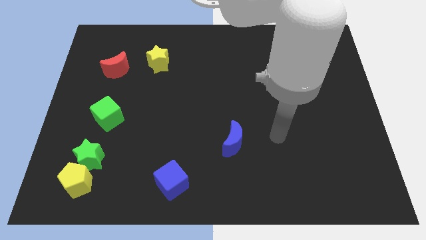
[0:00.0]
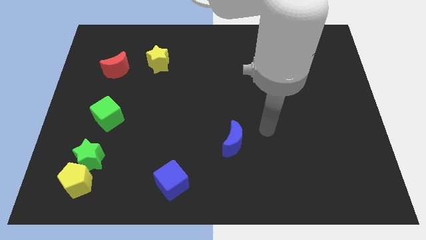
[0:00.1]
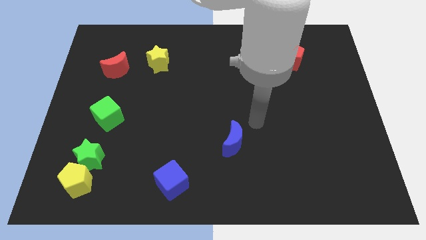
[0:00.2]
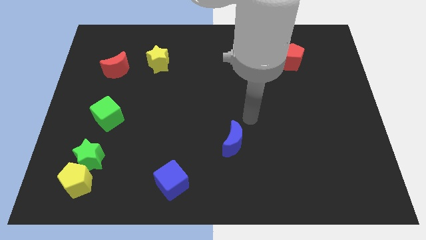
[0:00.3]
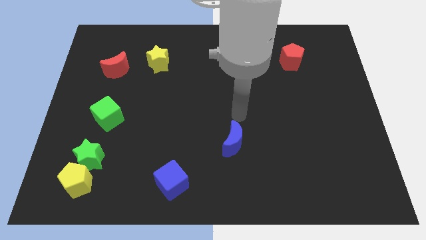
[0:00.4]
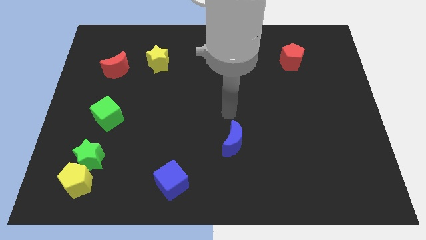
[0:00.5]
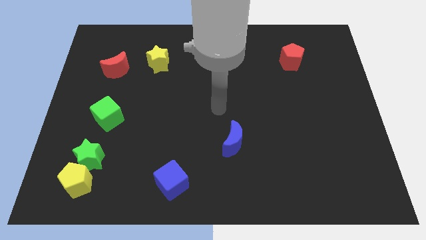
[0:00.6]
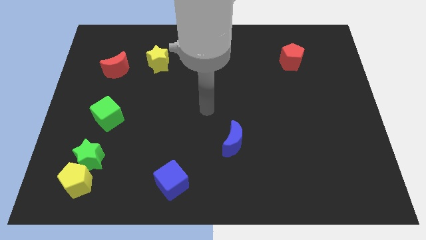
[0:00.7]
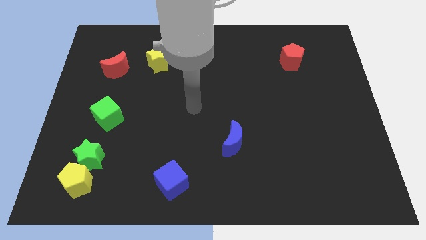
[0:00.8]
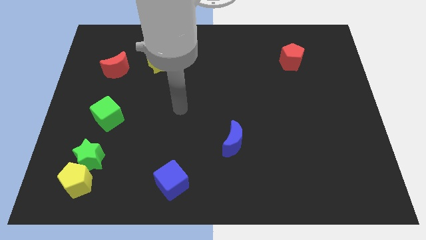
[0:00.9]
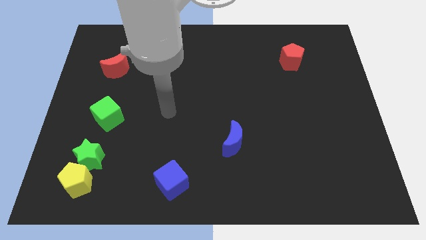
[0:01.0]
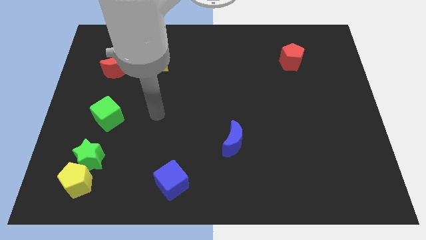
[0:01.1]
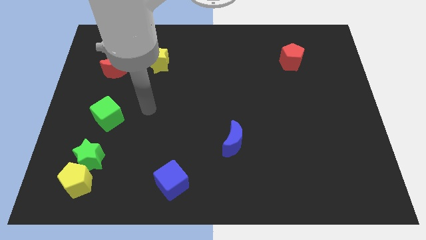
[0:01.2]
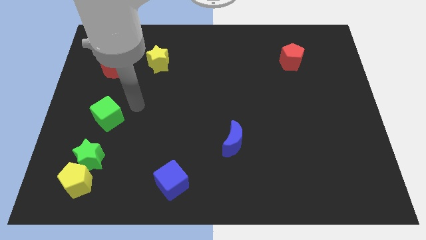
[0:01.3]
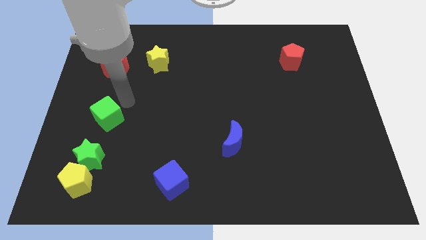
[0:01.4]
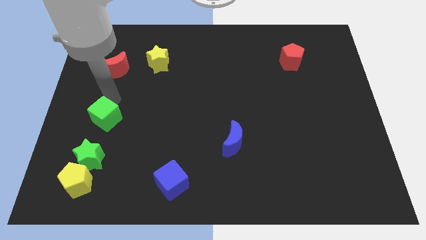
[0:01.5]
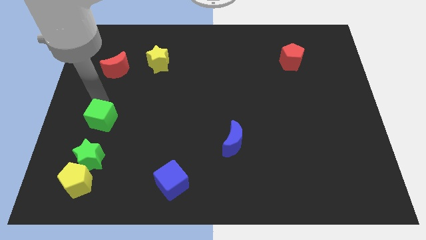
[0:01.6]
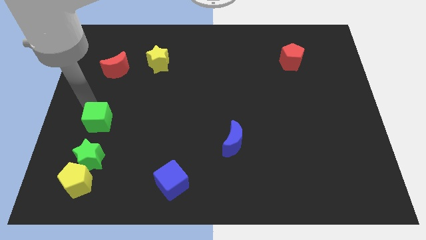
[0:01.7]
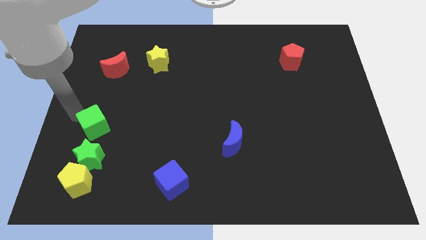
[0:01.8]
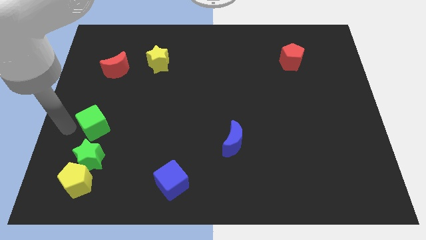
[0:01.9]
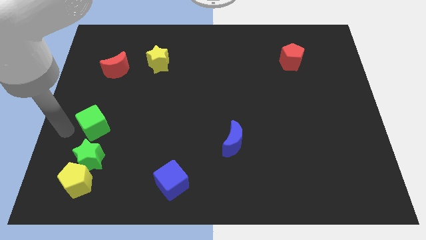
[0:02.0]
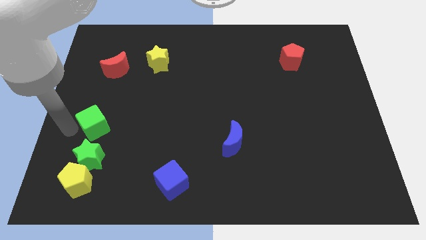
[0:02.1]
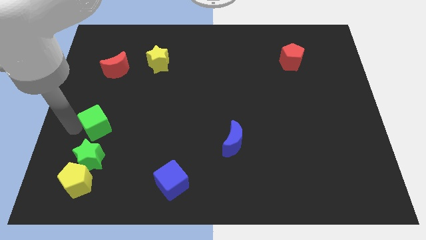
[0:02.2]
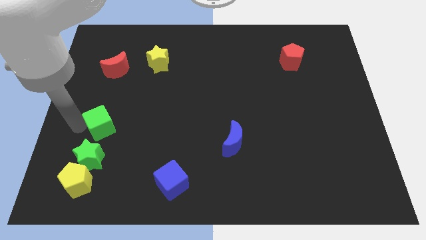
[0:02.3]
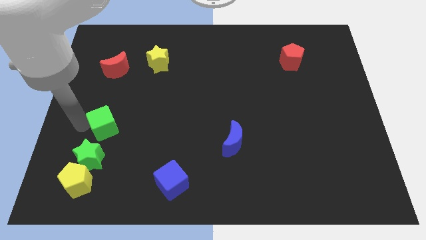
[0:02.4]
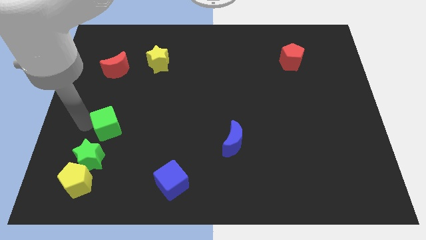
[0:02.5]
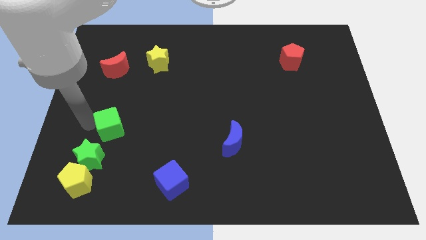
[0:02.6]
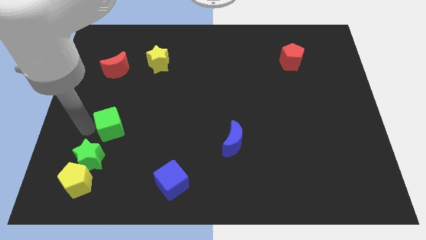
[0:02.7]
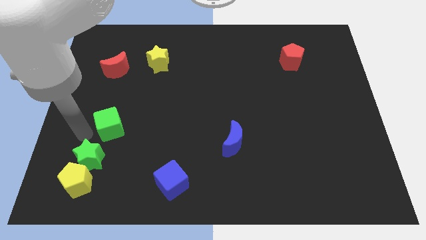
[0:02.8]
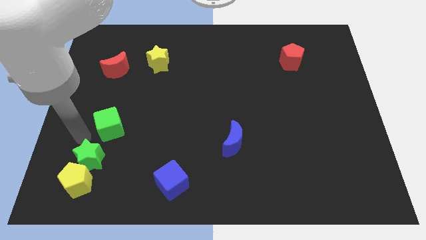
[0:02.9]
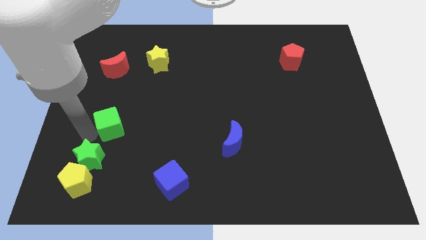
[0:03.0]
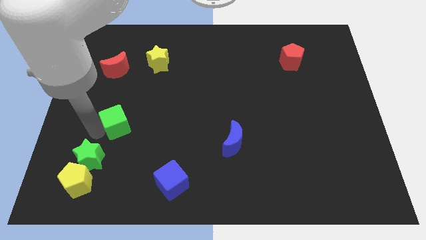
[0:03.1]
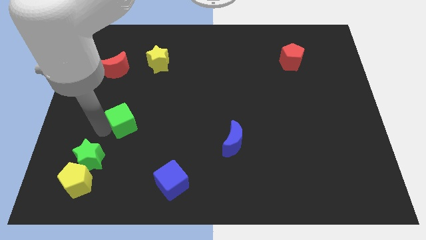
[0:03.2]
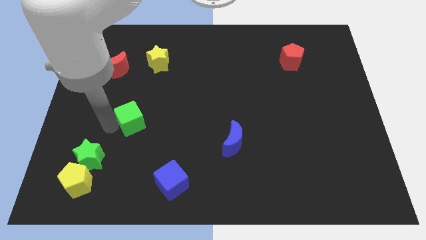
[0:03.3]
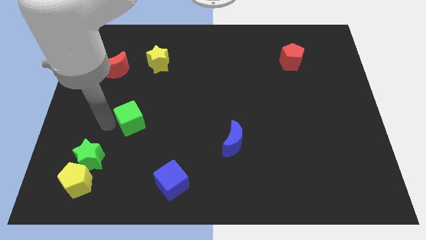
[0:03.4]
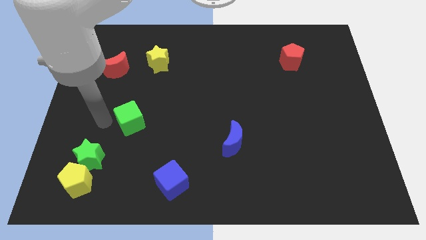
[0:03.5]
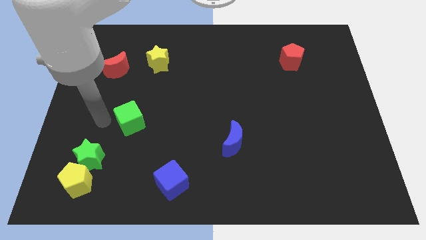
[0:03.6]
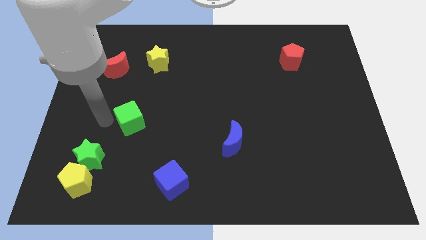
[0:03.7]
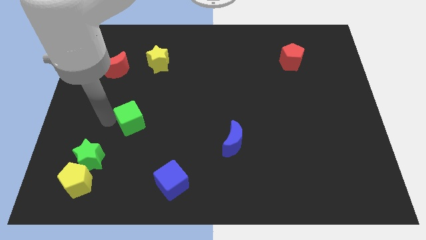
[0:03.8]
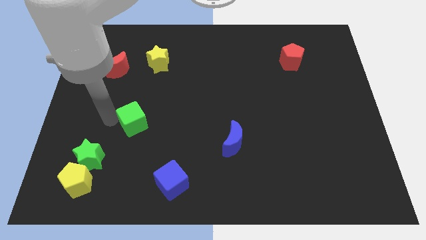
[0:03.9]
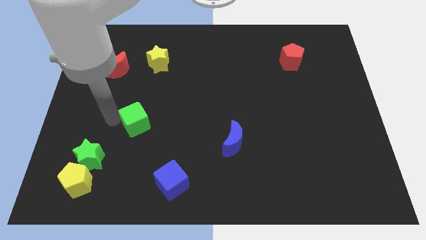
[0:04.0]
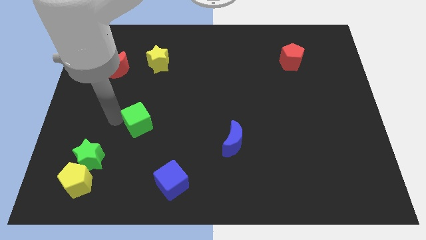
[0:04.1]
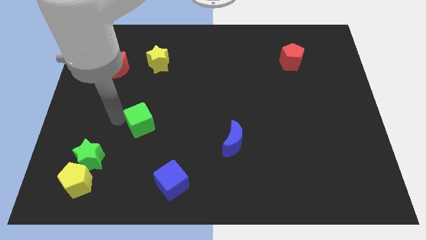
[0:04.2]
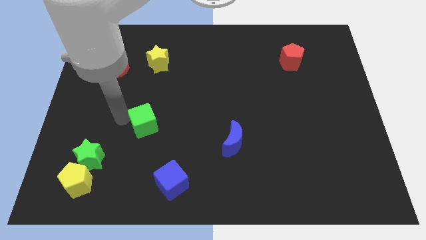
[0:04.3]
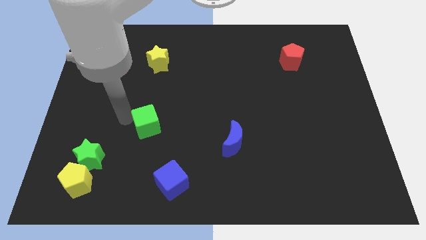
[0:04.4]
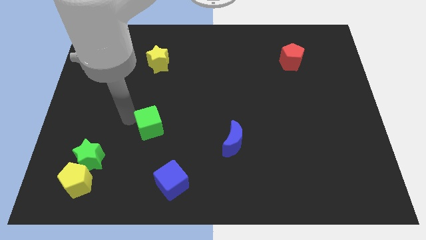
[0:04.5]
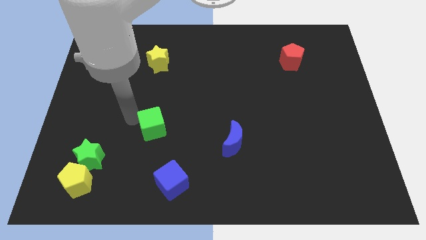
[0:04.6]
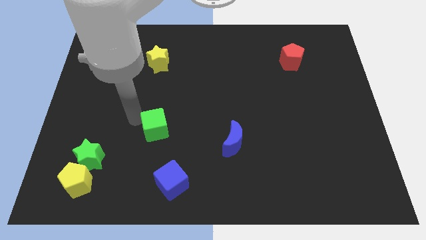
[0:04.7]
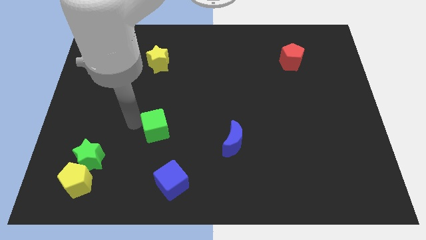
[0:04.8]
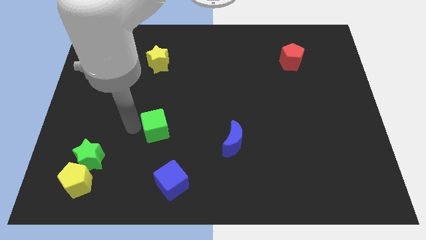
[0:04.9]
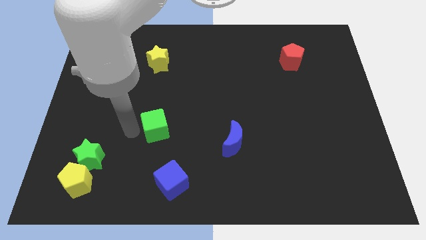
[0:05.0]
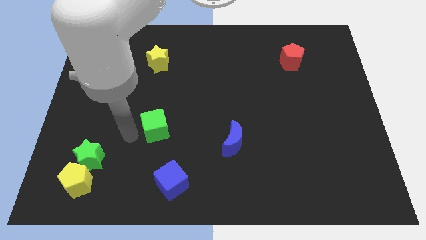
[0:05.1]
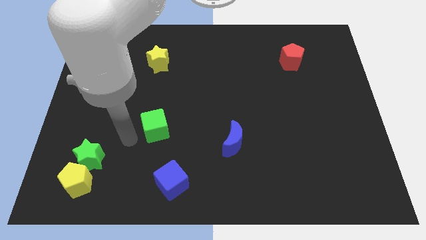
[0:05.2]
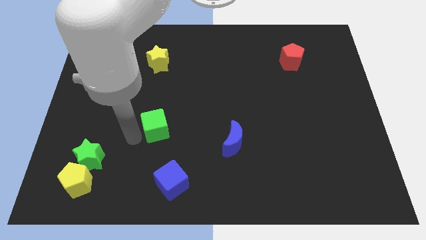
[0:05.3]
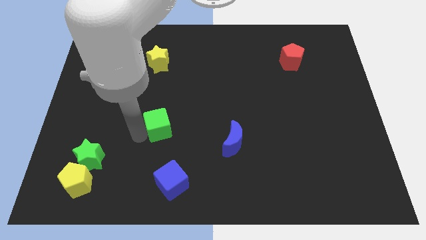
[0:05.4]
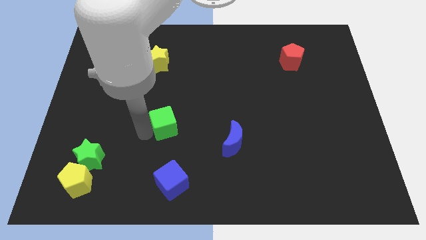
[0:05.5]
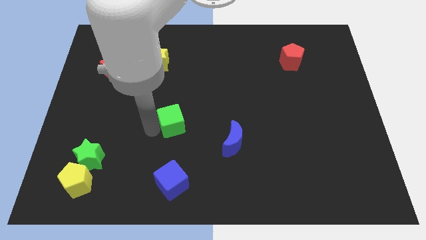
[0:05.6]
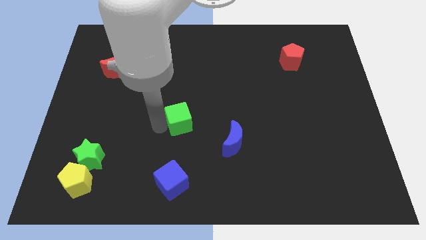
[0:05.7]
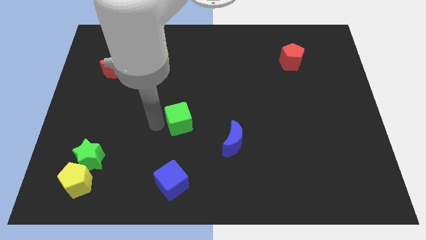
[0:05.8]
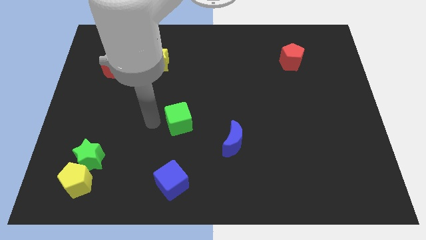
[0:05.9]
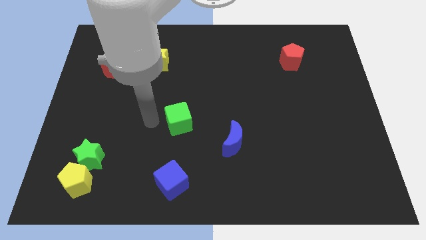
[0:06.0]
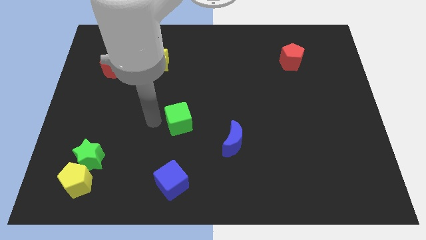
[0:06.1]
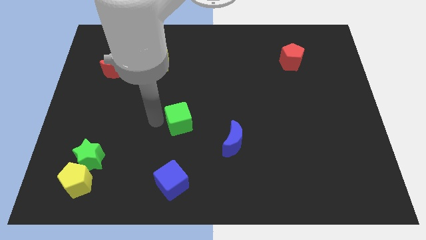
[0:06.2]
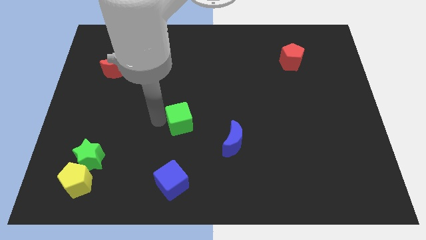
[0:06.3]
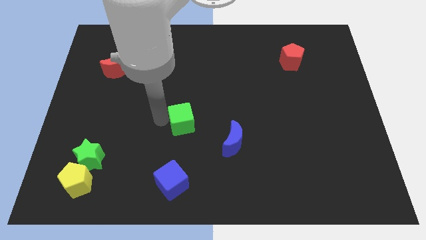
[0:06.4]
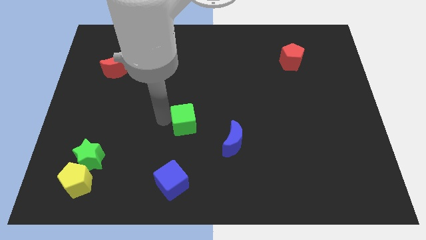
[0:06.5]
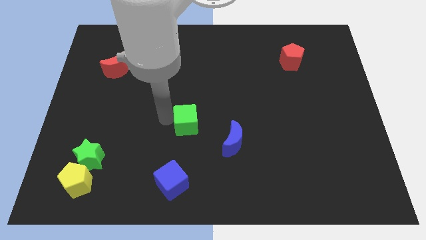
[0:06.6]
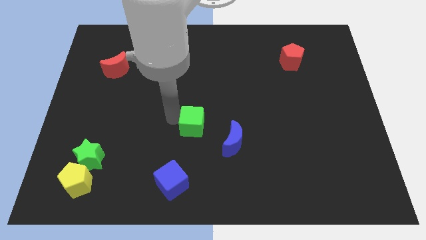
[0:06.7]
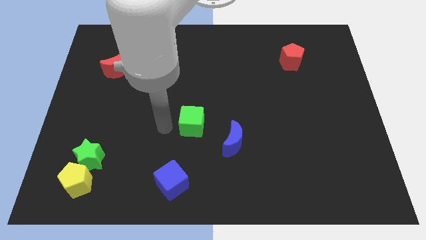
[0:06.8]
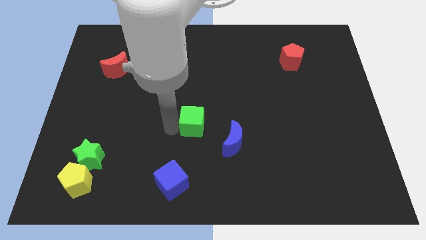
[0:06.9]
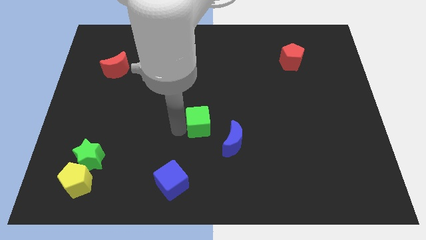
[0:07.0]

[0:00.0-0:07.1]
move the green cube right

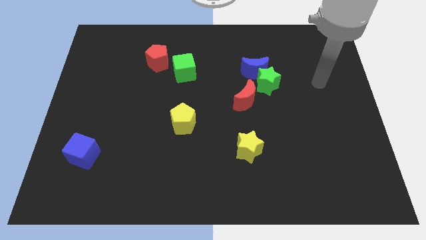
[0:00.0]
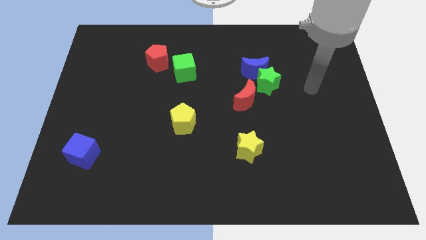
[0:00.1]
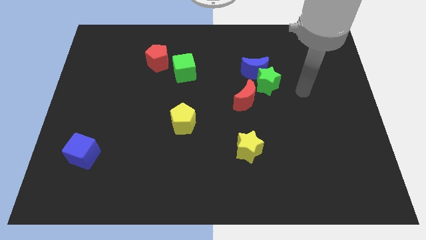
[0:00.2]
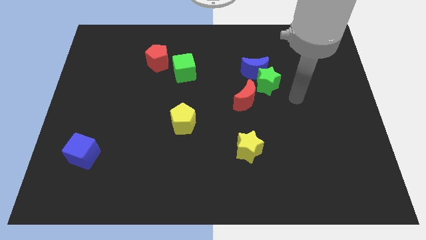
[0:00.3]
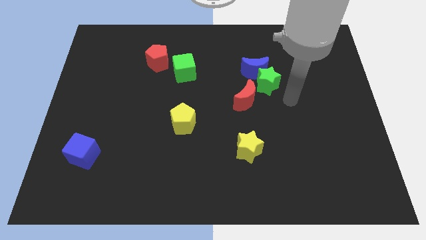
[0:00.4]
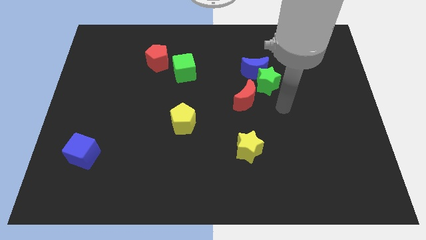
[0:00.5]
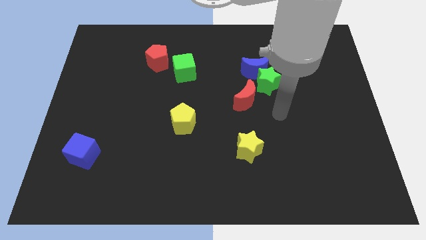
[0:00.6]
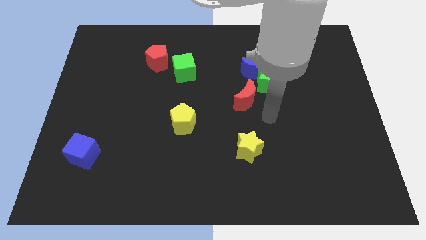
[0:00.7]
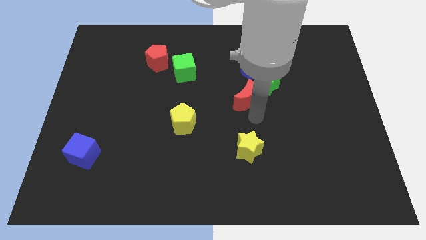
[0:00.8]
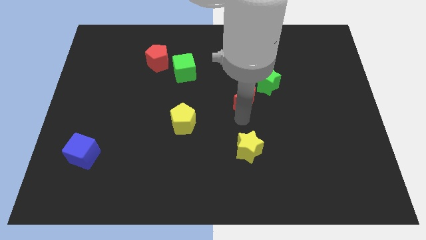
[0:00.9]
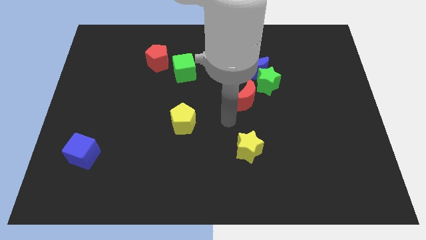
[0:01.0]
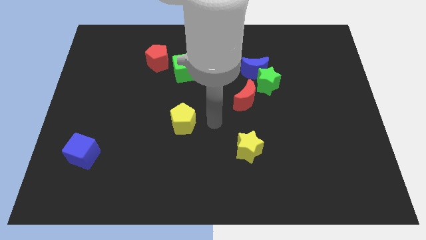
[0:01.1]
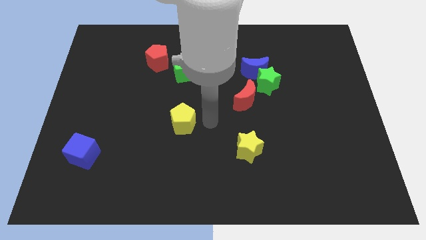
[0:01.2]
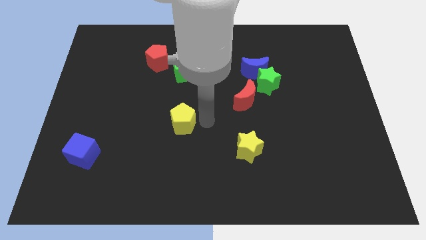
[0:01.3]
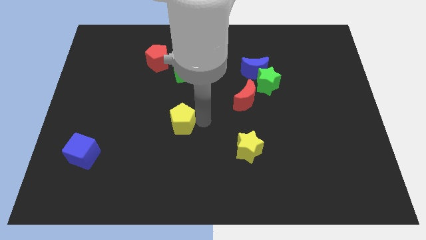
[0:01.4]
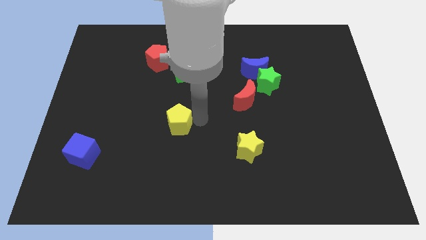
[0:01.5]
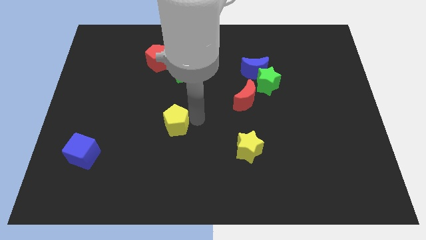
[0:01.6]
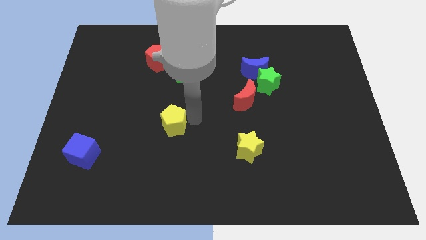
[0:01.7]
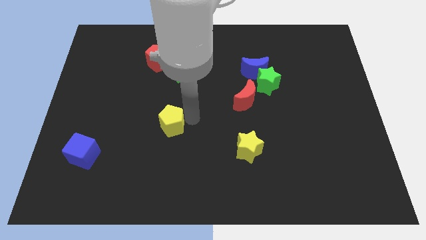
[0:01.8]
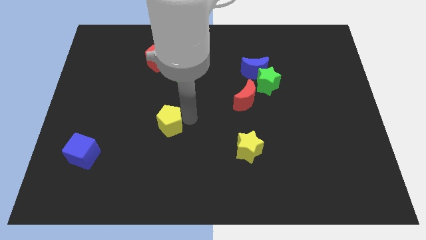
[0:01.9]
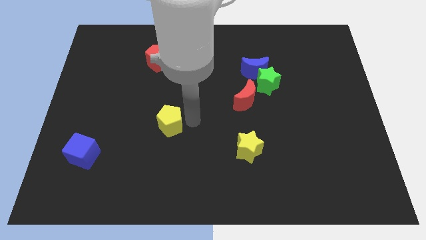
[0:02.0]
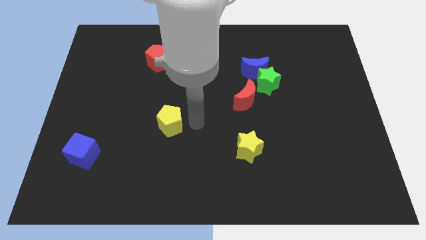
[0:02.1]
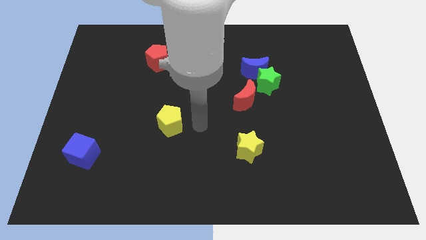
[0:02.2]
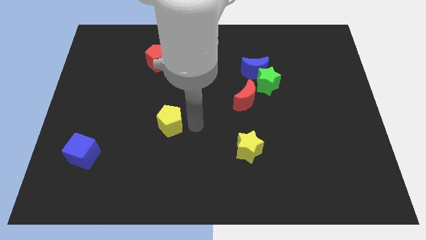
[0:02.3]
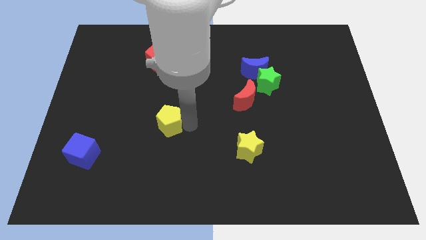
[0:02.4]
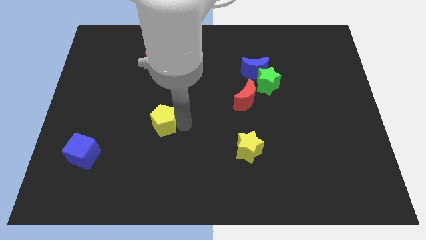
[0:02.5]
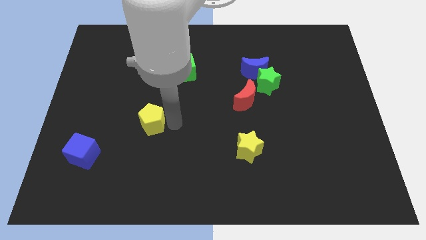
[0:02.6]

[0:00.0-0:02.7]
move the yellow pentagon to the left slightly
